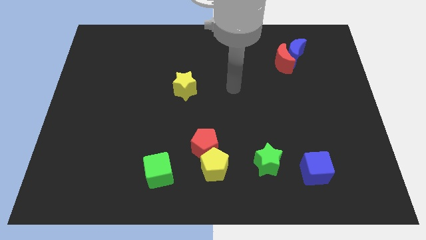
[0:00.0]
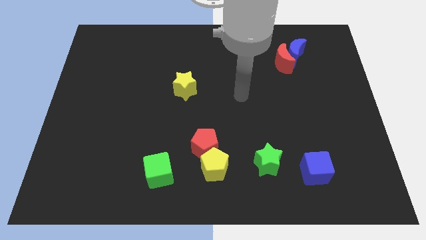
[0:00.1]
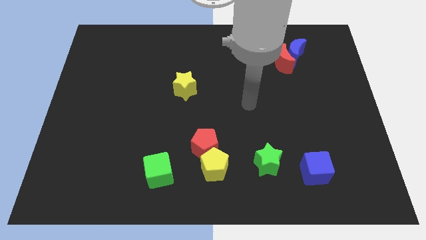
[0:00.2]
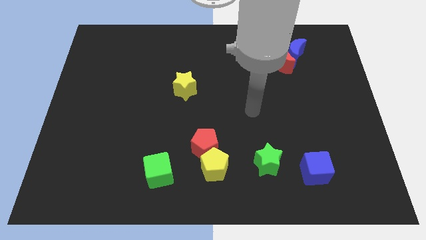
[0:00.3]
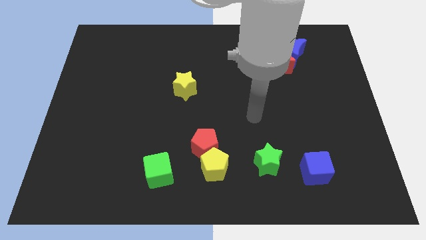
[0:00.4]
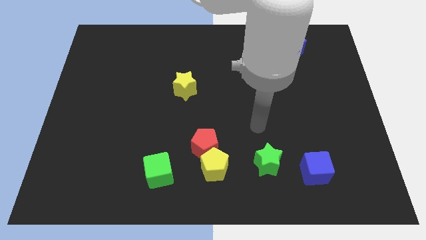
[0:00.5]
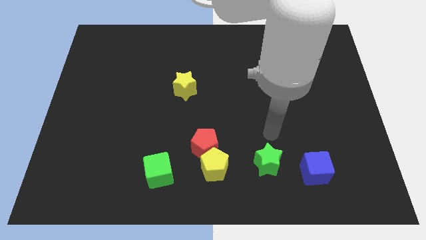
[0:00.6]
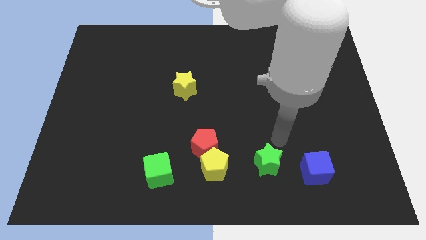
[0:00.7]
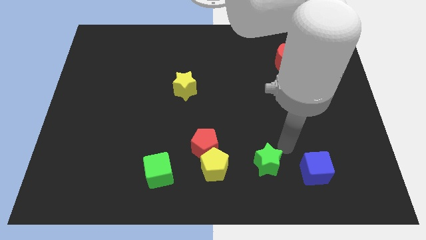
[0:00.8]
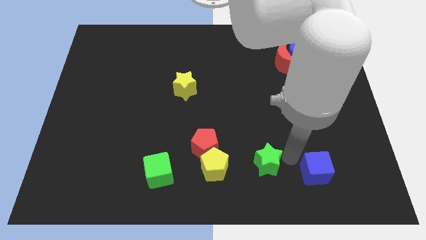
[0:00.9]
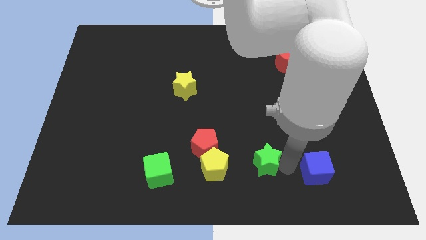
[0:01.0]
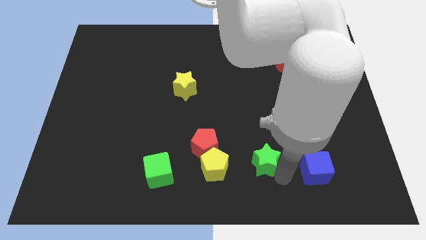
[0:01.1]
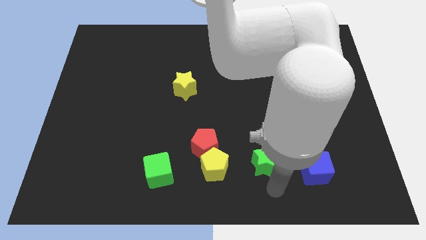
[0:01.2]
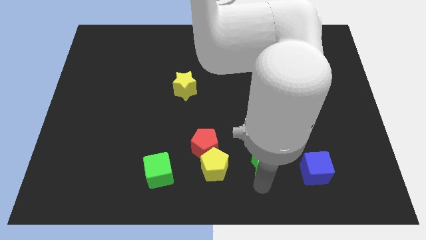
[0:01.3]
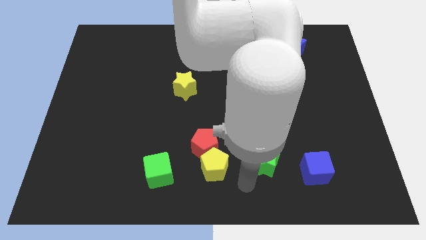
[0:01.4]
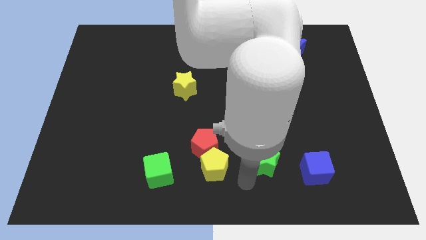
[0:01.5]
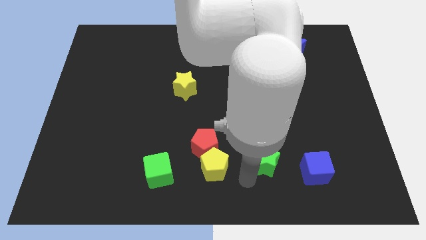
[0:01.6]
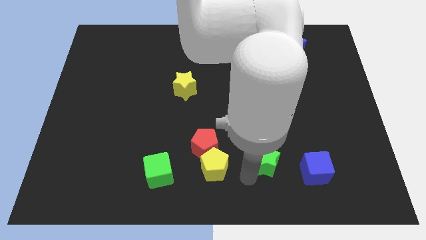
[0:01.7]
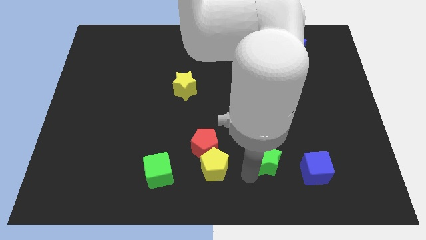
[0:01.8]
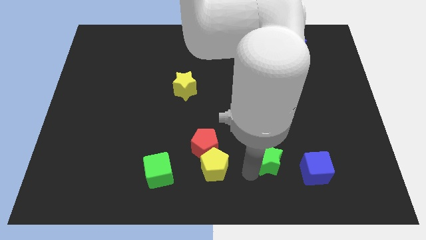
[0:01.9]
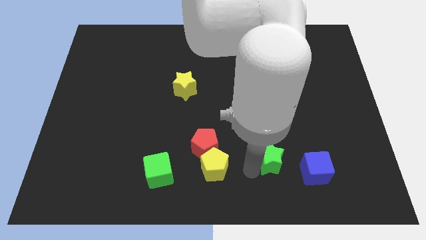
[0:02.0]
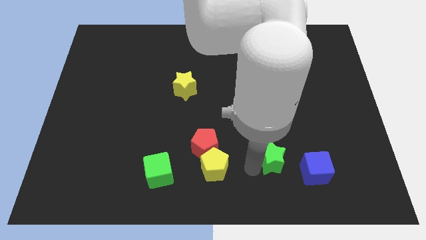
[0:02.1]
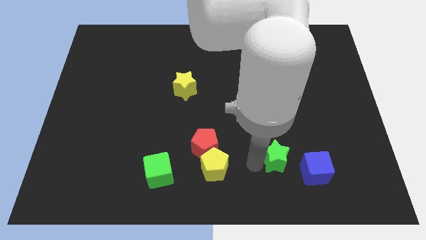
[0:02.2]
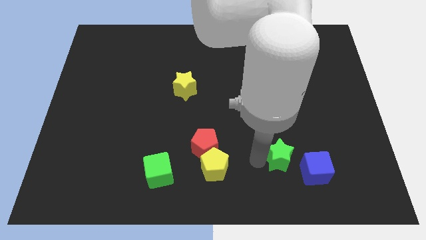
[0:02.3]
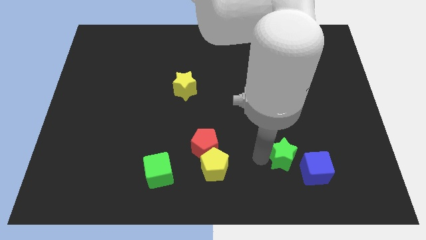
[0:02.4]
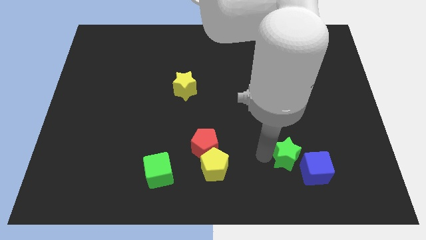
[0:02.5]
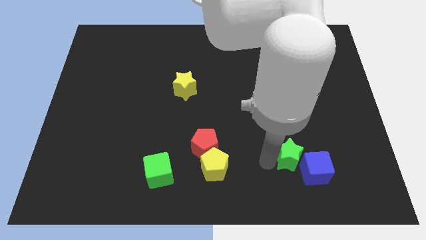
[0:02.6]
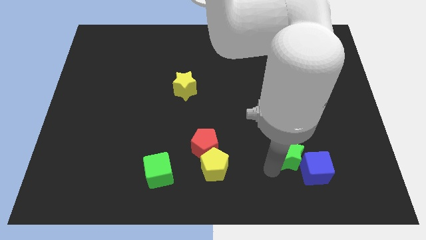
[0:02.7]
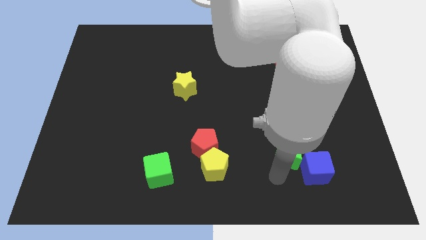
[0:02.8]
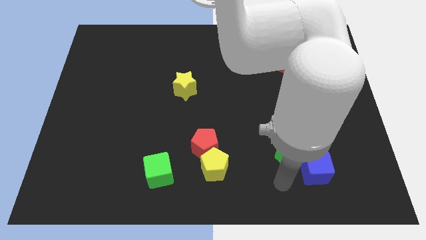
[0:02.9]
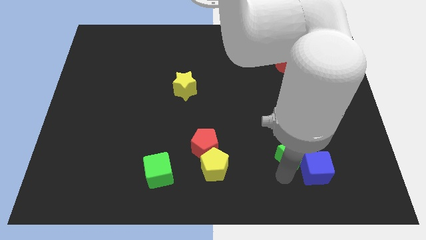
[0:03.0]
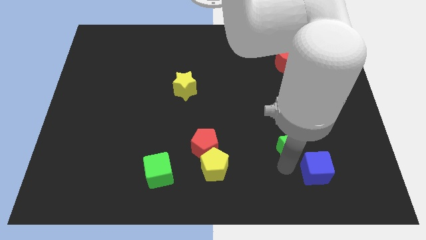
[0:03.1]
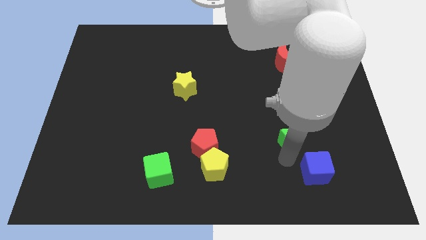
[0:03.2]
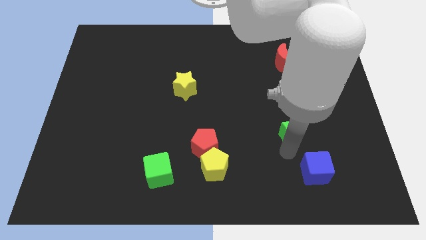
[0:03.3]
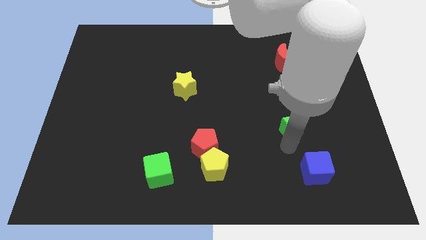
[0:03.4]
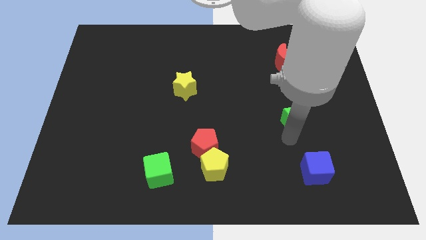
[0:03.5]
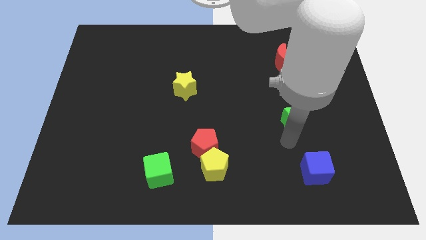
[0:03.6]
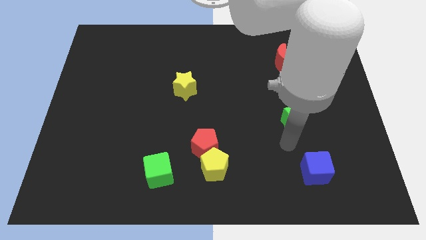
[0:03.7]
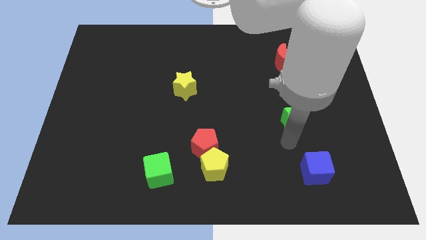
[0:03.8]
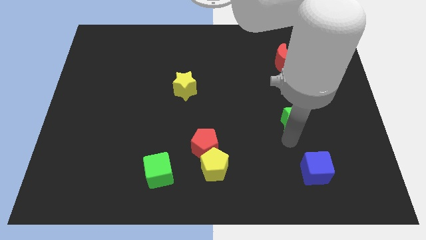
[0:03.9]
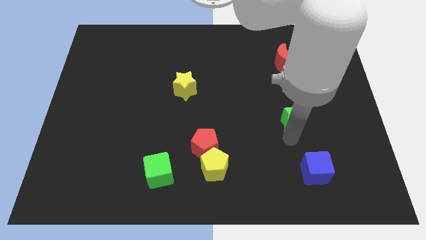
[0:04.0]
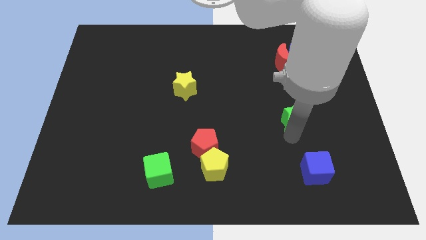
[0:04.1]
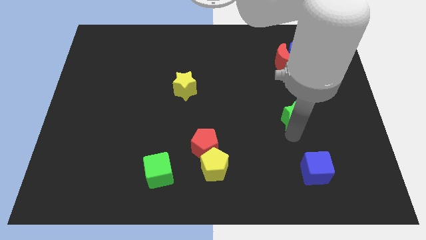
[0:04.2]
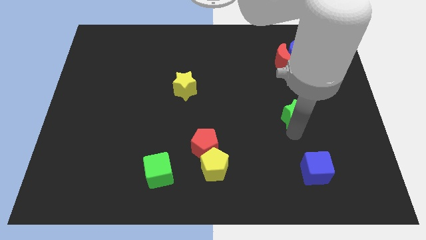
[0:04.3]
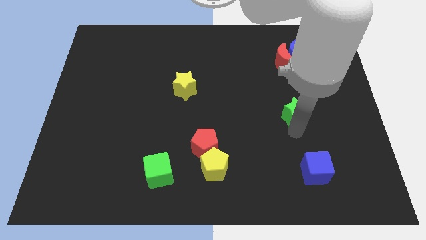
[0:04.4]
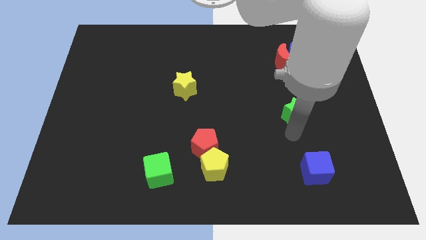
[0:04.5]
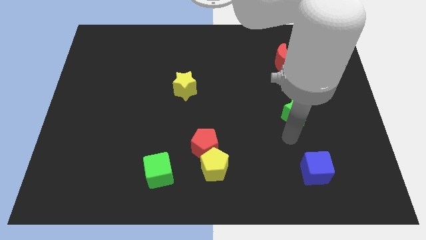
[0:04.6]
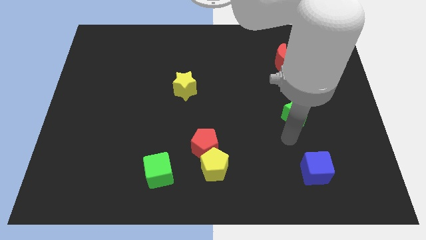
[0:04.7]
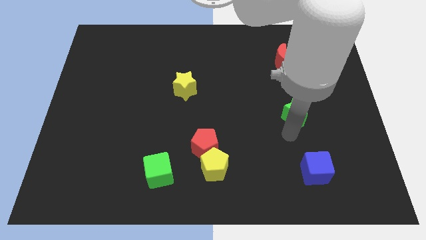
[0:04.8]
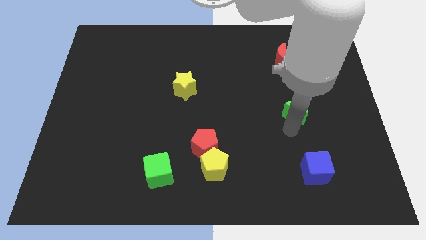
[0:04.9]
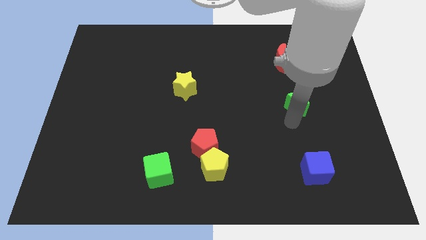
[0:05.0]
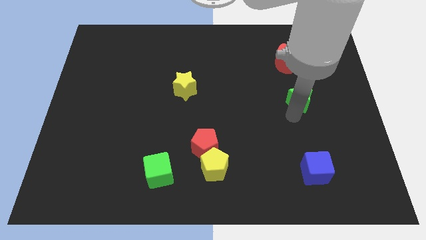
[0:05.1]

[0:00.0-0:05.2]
slide the green star to the bottom of the blue moon

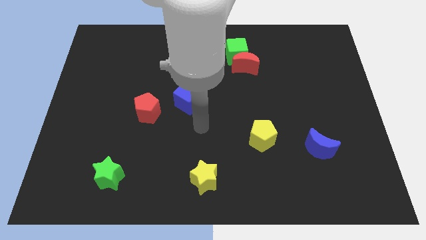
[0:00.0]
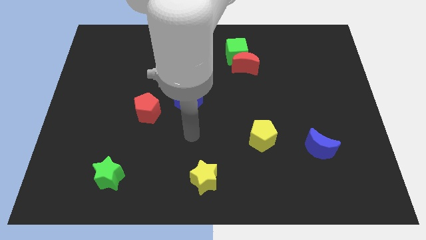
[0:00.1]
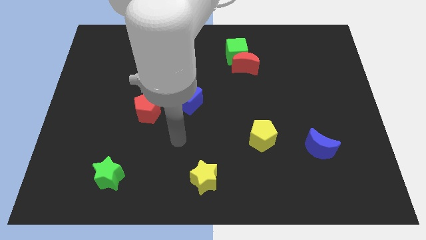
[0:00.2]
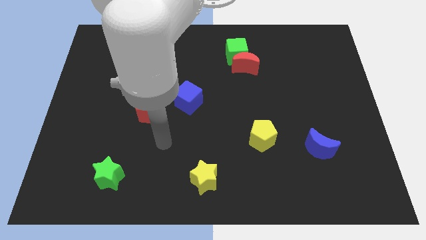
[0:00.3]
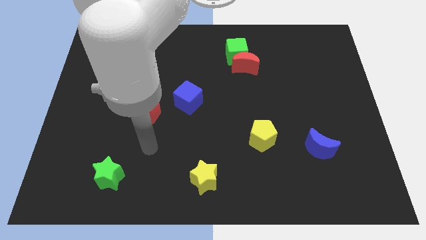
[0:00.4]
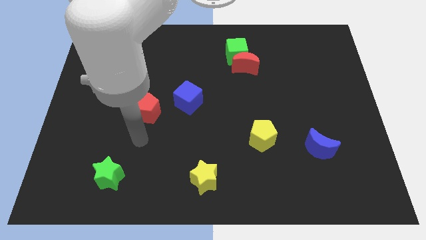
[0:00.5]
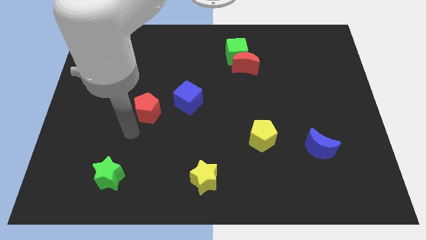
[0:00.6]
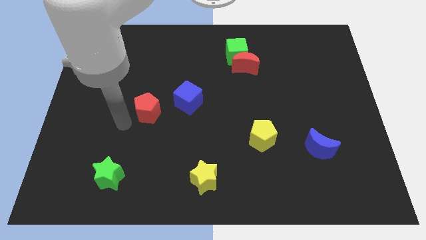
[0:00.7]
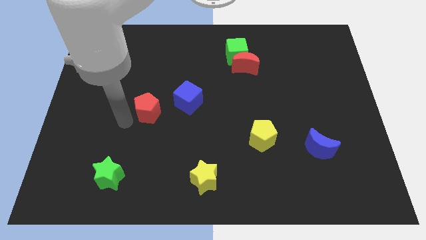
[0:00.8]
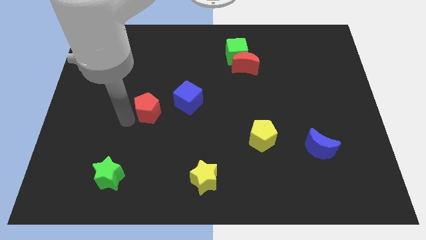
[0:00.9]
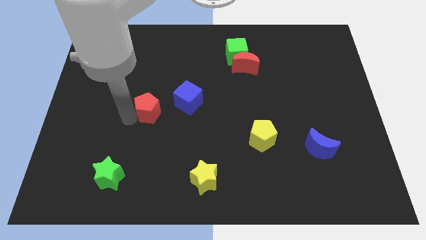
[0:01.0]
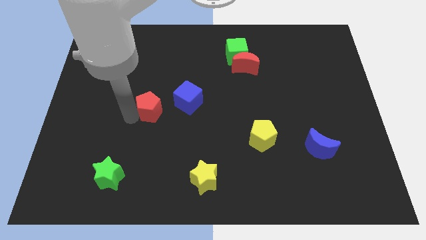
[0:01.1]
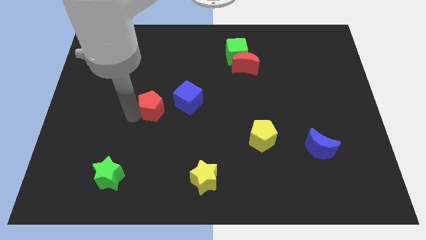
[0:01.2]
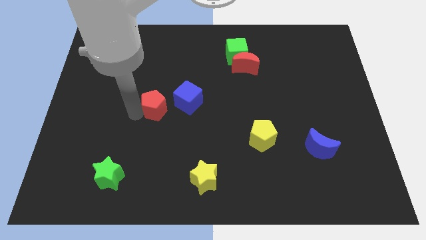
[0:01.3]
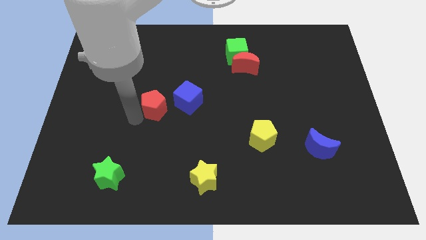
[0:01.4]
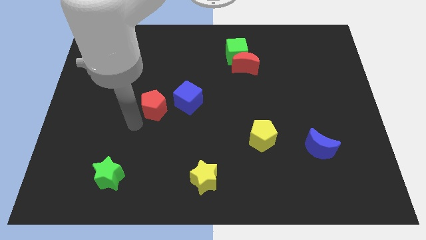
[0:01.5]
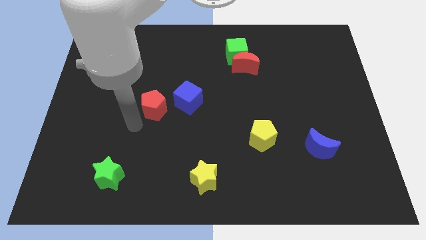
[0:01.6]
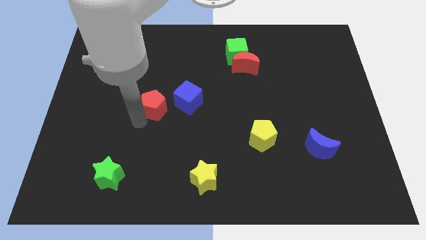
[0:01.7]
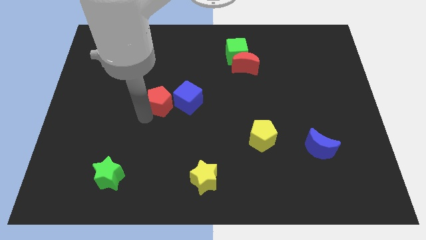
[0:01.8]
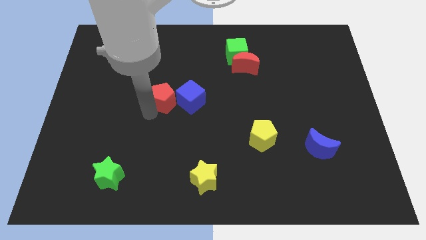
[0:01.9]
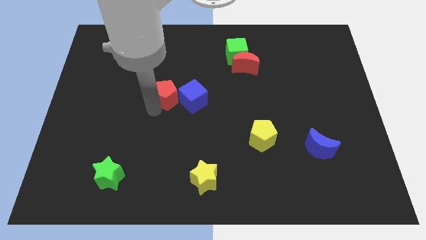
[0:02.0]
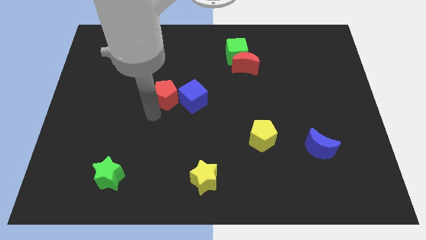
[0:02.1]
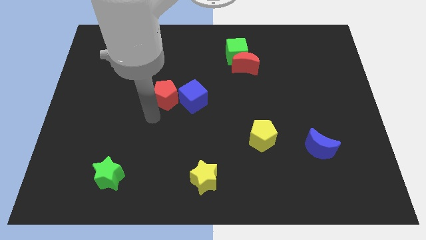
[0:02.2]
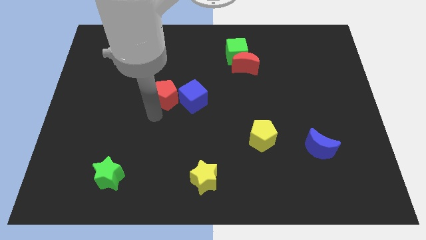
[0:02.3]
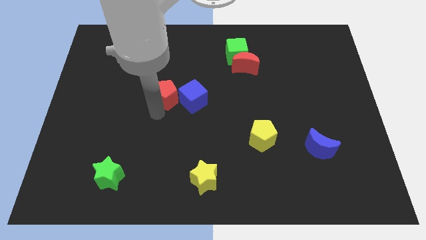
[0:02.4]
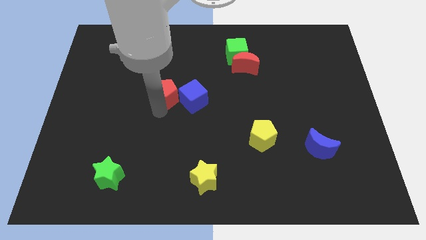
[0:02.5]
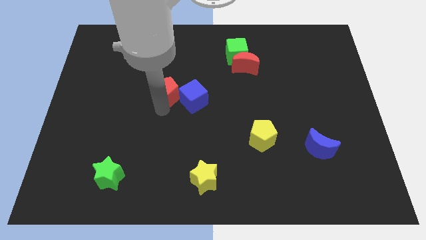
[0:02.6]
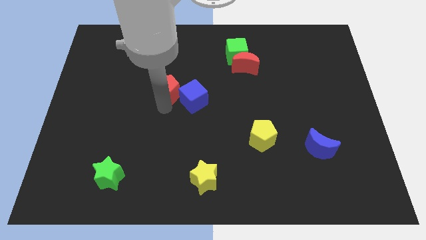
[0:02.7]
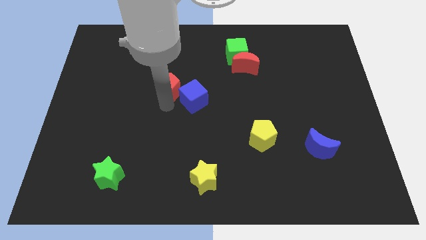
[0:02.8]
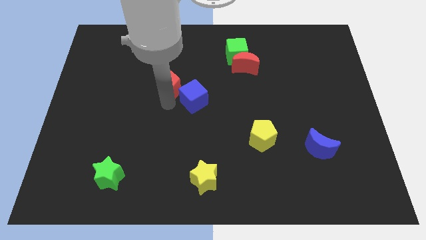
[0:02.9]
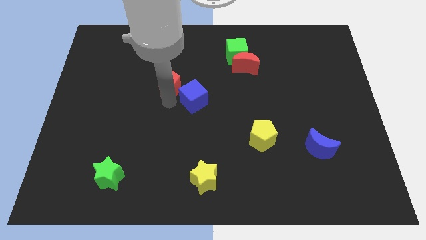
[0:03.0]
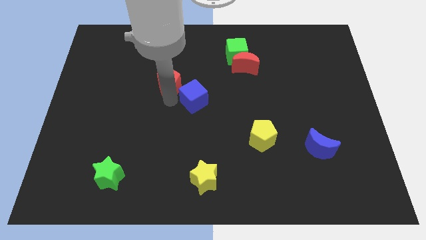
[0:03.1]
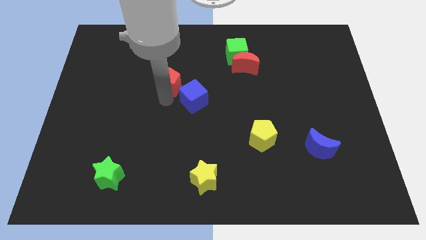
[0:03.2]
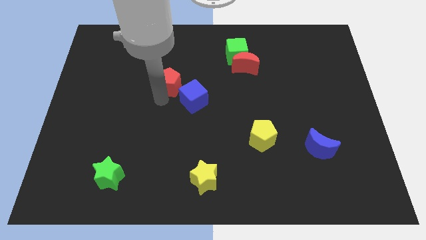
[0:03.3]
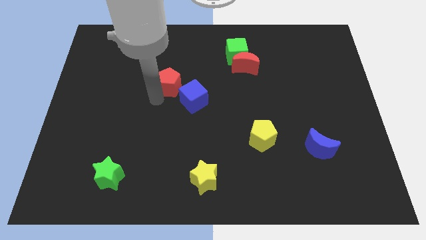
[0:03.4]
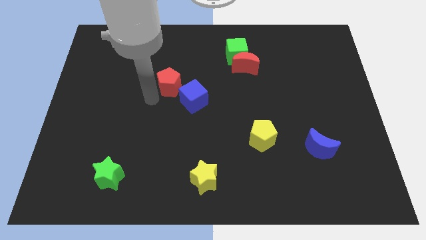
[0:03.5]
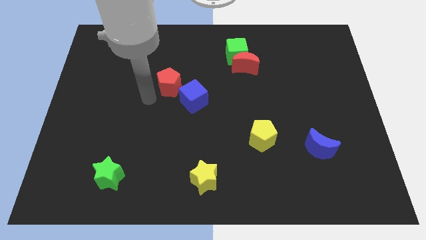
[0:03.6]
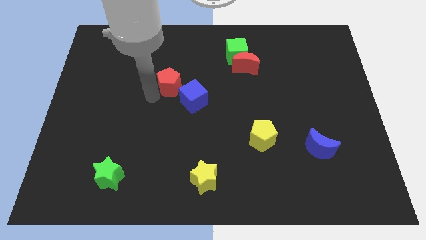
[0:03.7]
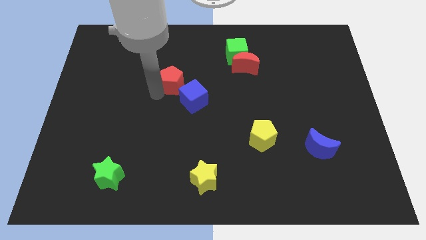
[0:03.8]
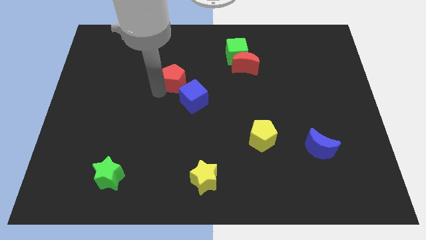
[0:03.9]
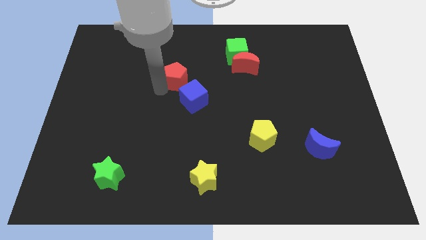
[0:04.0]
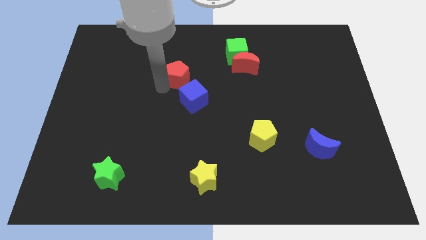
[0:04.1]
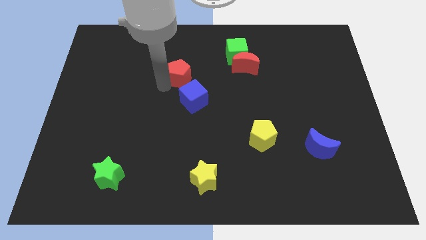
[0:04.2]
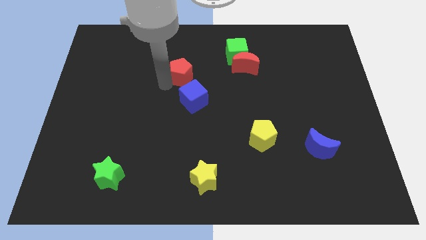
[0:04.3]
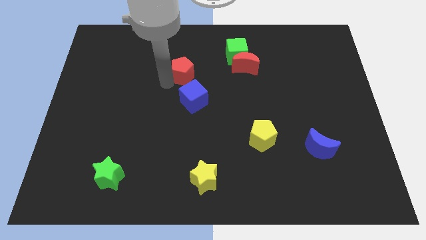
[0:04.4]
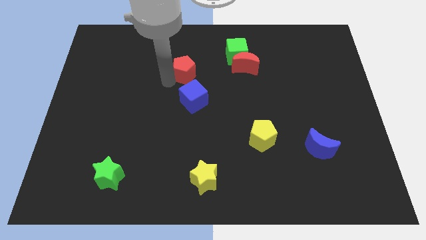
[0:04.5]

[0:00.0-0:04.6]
push the red pentagon to the left side of the red moon
